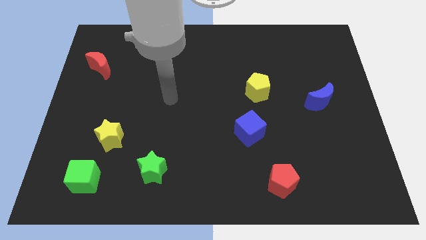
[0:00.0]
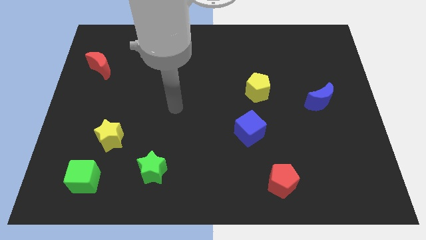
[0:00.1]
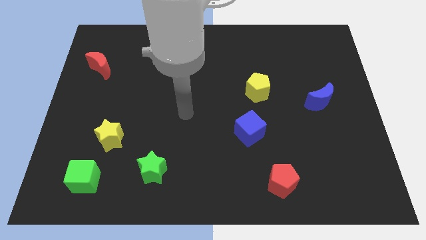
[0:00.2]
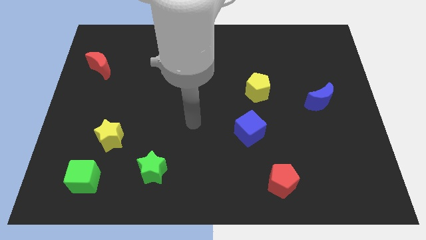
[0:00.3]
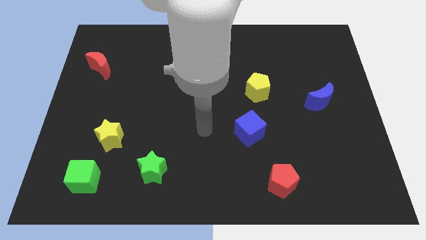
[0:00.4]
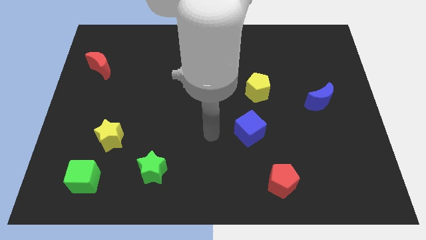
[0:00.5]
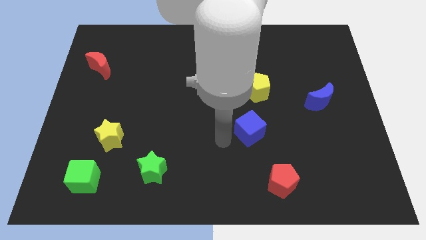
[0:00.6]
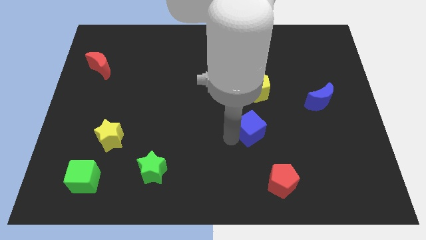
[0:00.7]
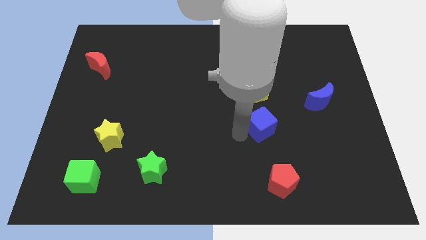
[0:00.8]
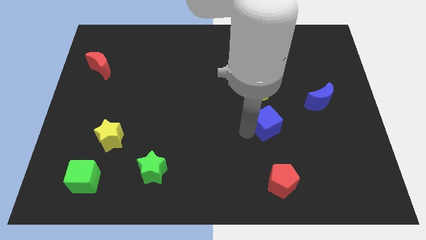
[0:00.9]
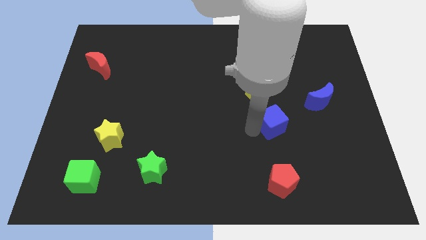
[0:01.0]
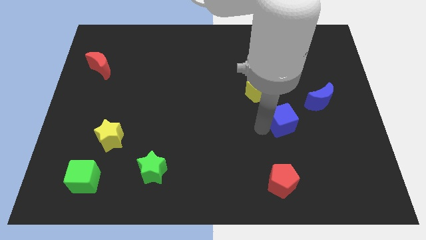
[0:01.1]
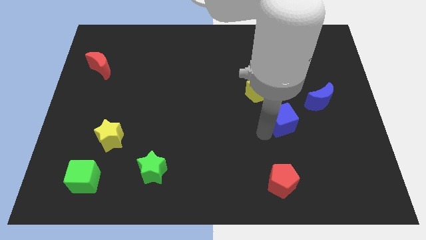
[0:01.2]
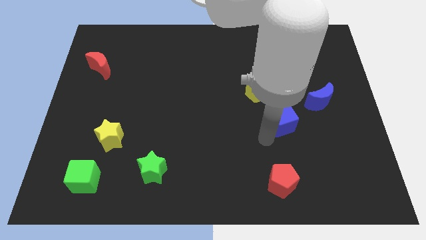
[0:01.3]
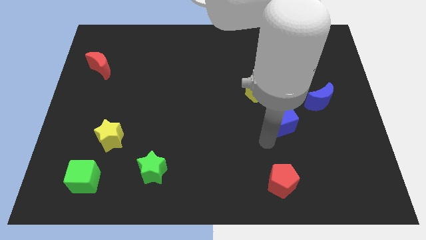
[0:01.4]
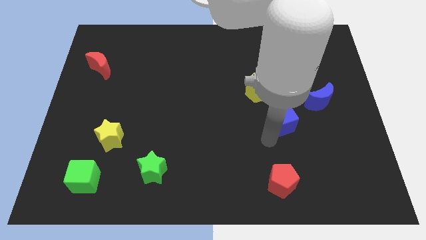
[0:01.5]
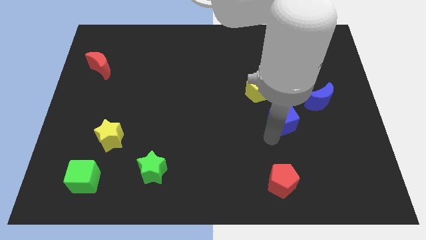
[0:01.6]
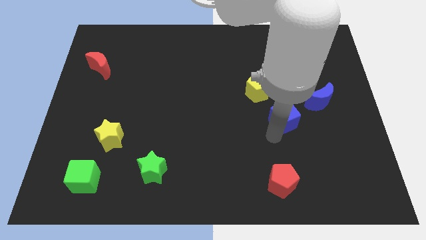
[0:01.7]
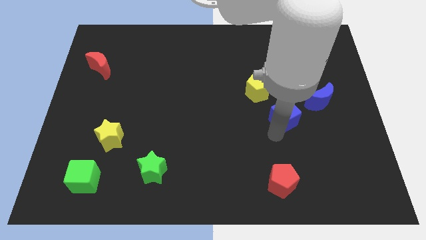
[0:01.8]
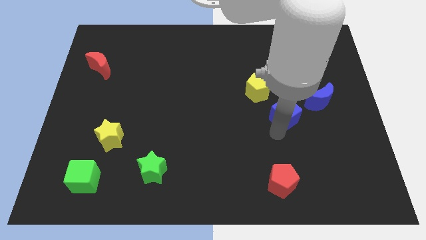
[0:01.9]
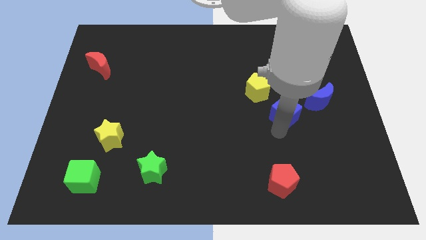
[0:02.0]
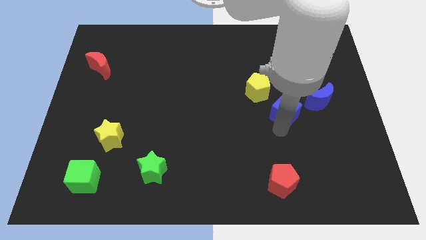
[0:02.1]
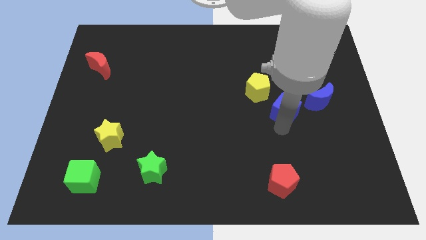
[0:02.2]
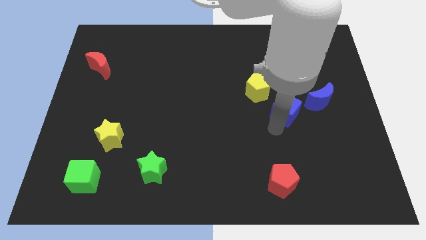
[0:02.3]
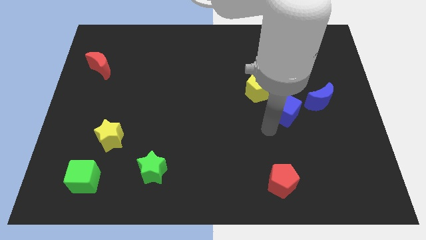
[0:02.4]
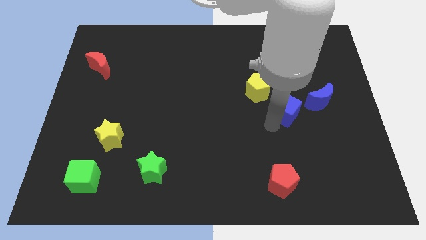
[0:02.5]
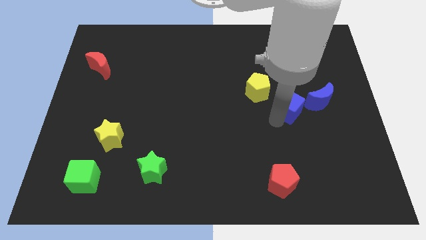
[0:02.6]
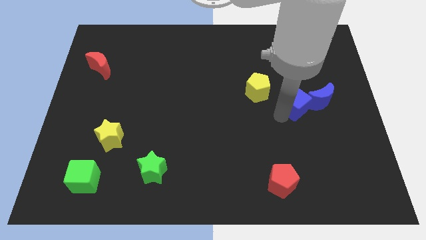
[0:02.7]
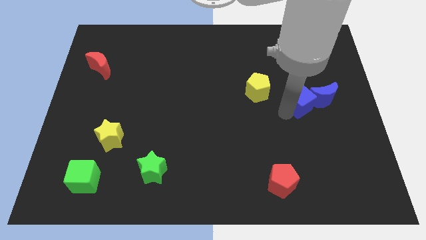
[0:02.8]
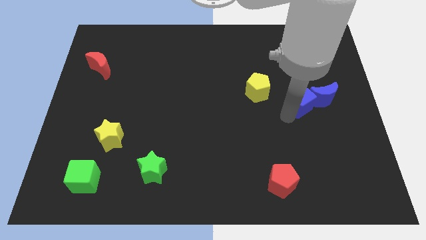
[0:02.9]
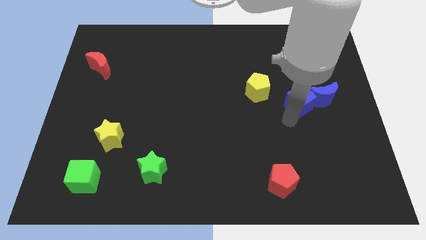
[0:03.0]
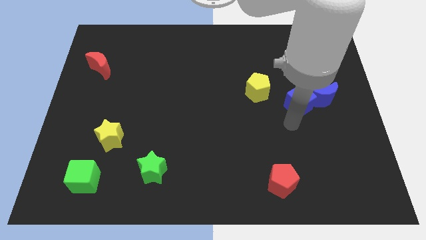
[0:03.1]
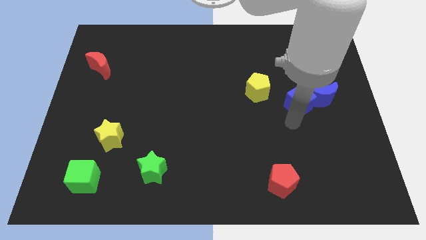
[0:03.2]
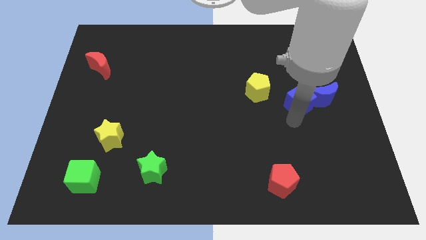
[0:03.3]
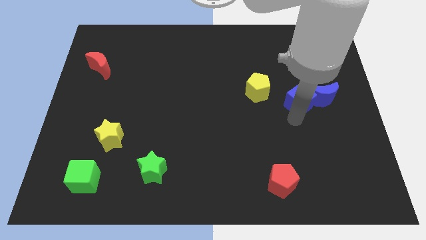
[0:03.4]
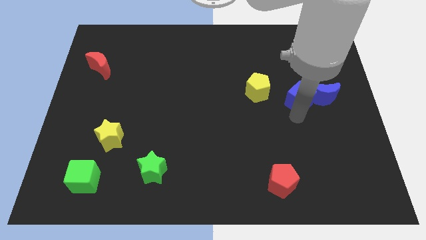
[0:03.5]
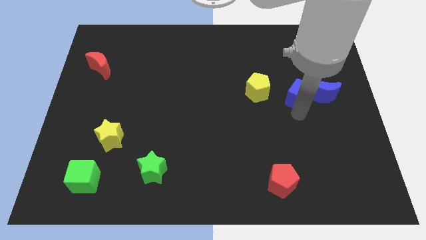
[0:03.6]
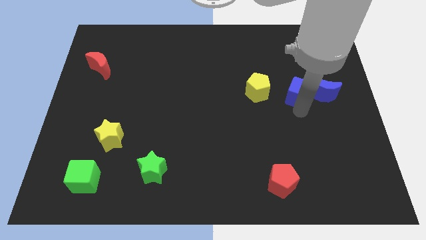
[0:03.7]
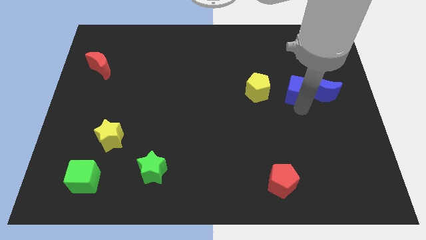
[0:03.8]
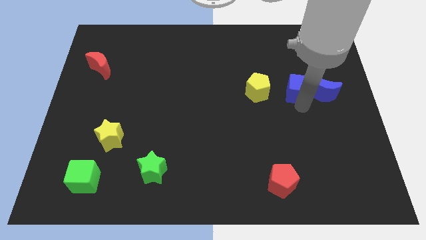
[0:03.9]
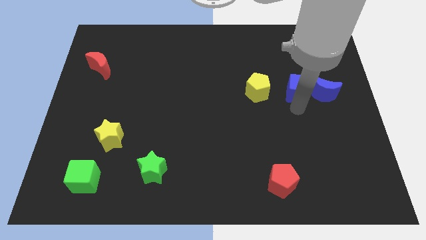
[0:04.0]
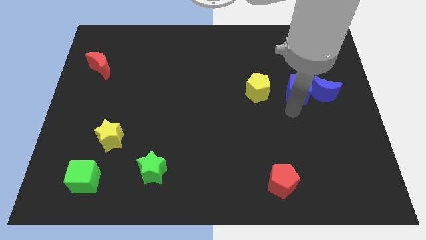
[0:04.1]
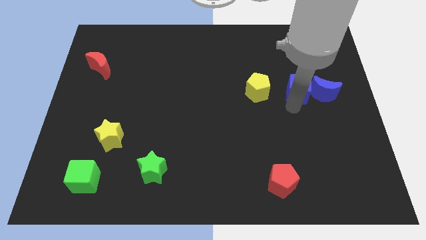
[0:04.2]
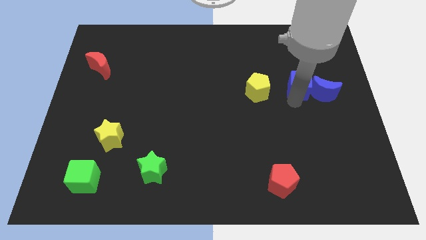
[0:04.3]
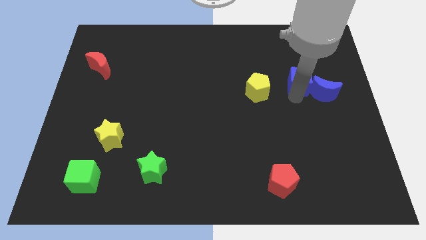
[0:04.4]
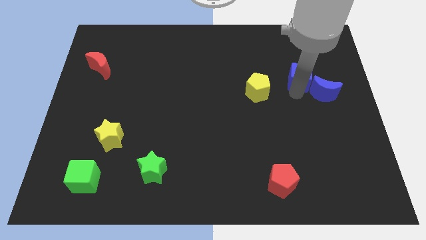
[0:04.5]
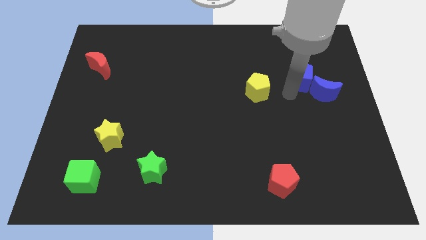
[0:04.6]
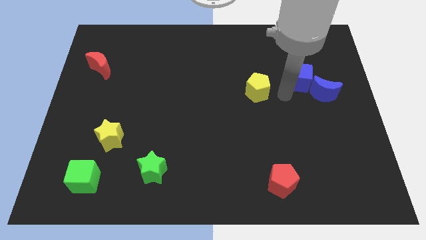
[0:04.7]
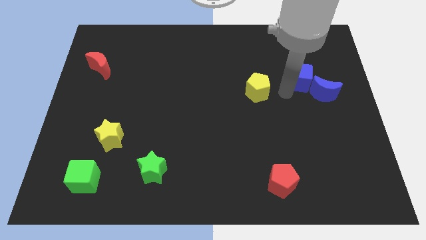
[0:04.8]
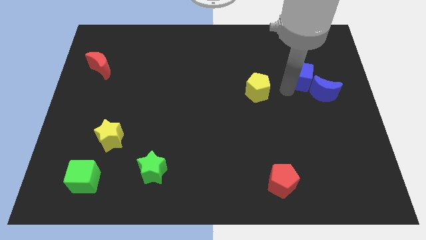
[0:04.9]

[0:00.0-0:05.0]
push the blue cube to the top of the blue moon

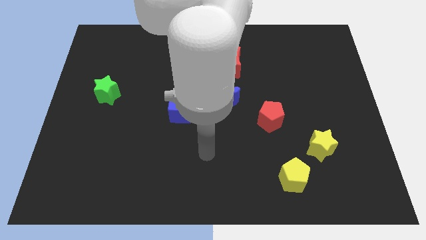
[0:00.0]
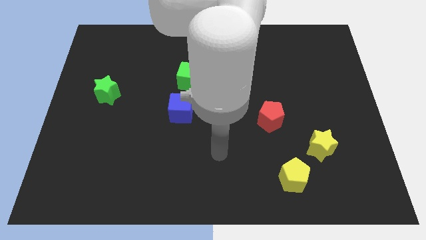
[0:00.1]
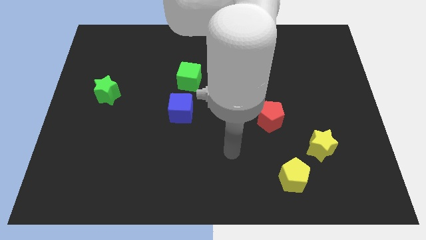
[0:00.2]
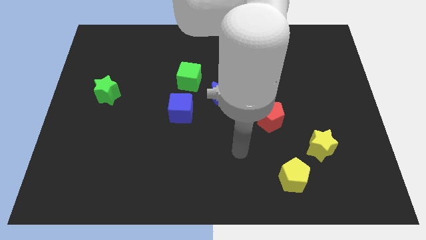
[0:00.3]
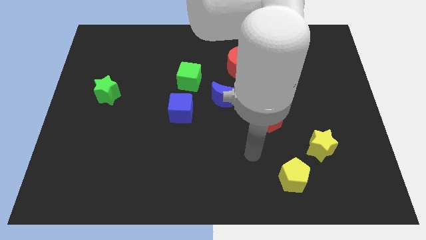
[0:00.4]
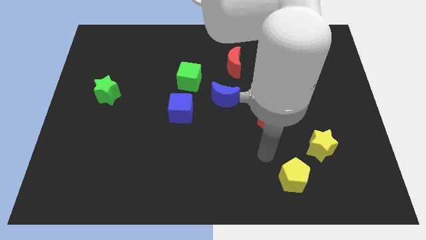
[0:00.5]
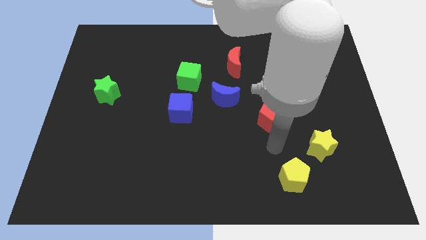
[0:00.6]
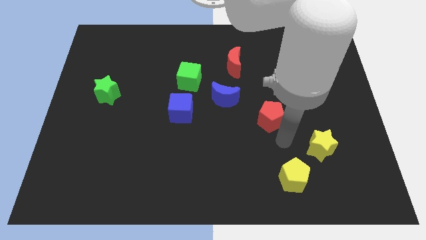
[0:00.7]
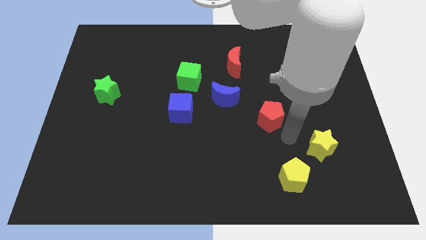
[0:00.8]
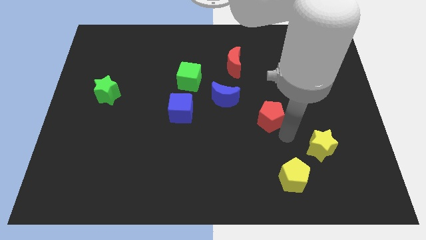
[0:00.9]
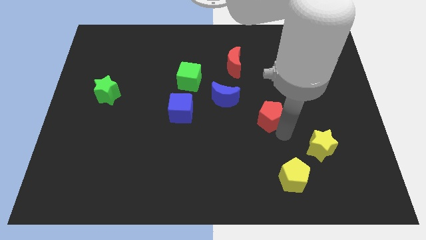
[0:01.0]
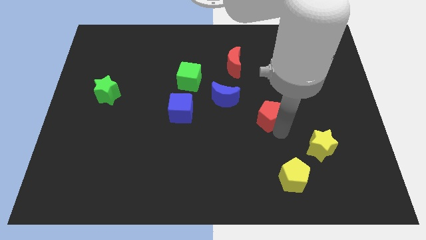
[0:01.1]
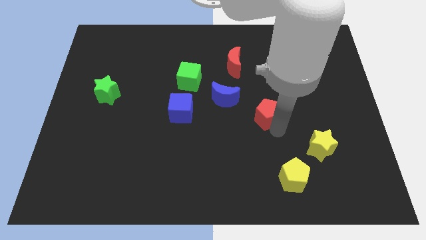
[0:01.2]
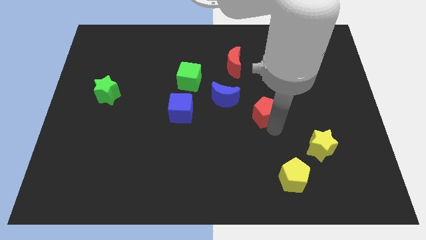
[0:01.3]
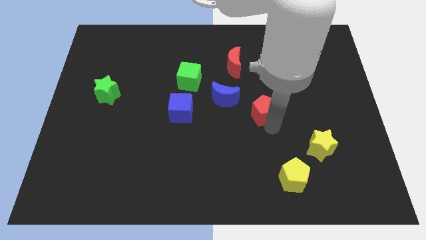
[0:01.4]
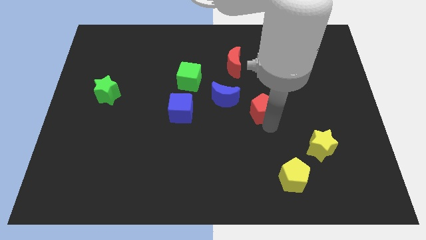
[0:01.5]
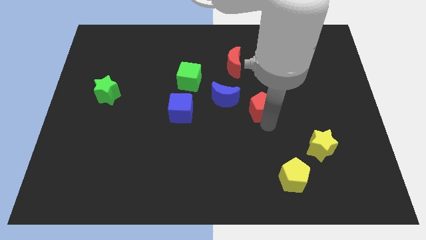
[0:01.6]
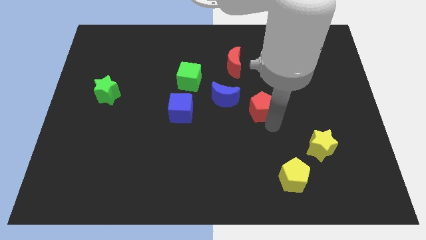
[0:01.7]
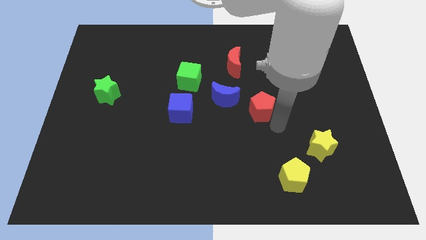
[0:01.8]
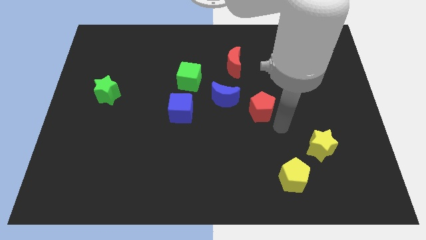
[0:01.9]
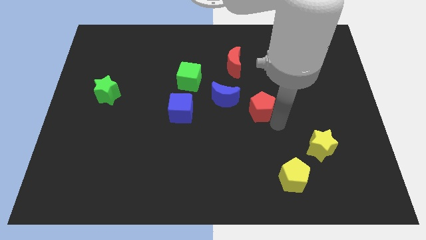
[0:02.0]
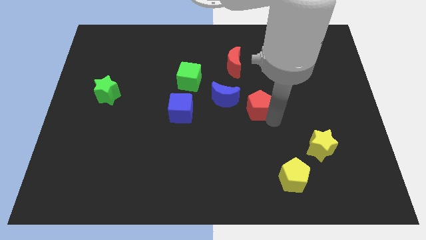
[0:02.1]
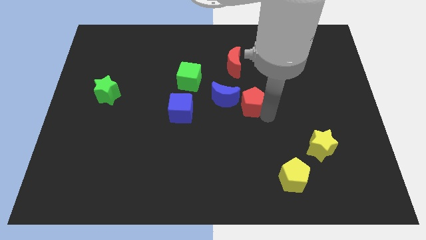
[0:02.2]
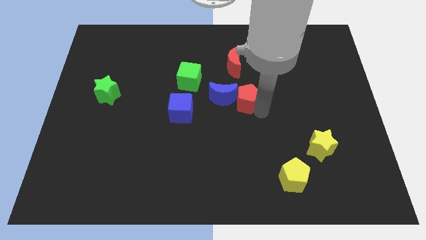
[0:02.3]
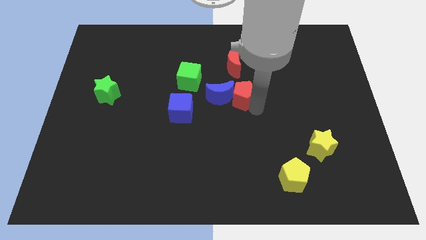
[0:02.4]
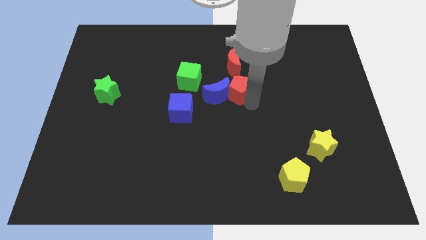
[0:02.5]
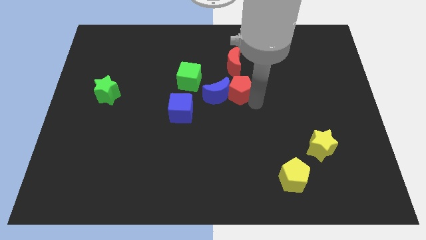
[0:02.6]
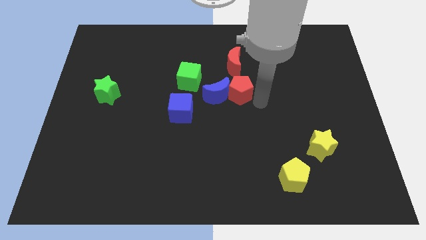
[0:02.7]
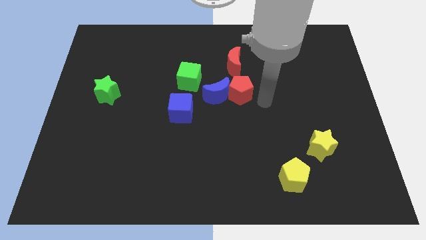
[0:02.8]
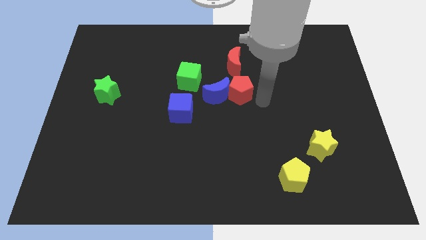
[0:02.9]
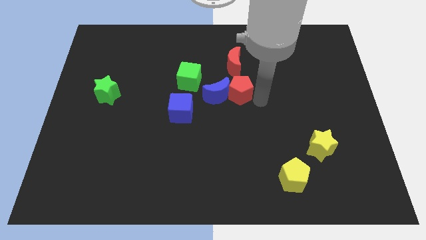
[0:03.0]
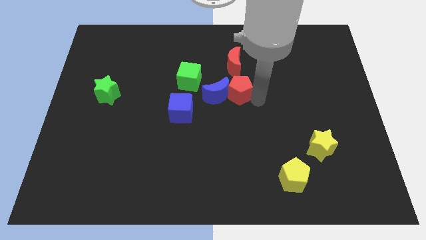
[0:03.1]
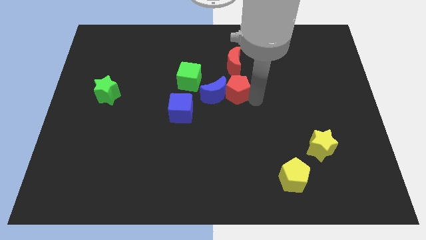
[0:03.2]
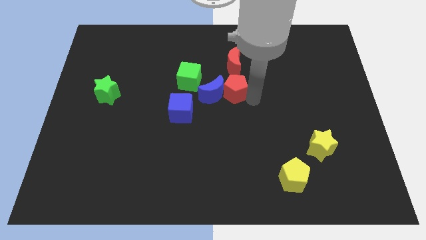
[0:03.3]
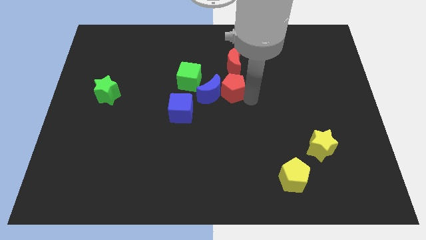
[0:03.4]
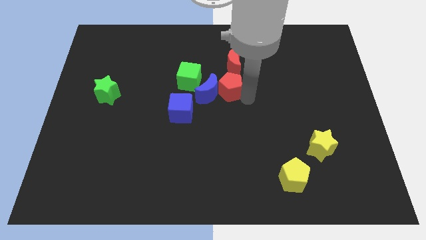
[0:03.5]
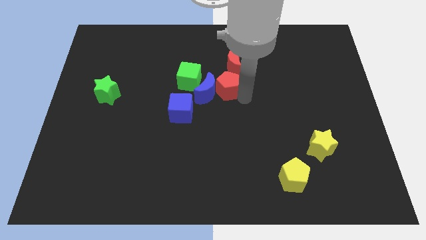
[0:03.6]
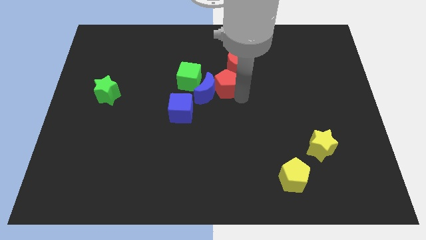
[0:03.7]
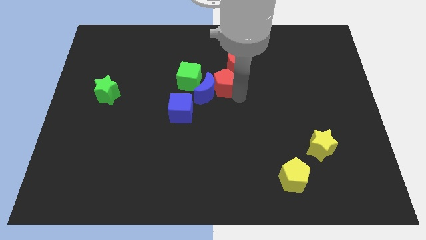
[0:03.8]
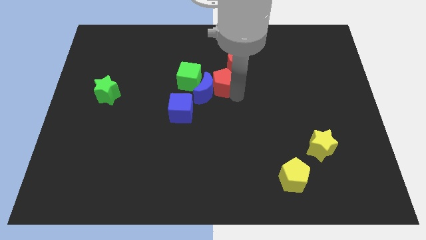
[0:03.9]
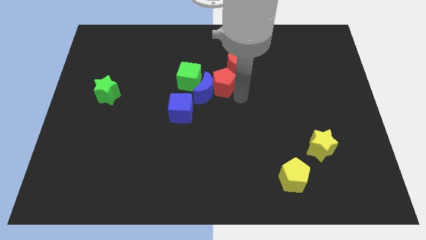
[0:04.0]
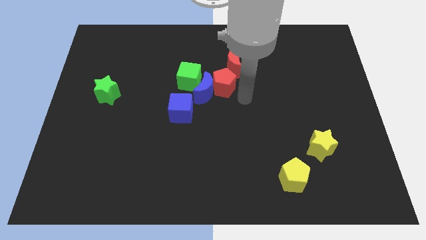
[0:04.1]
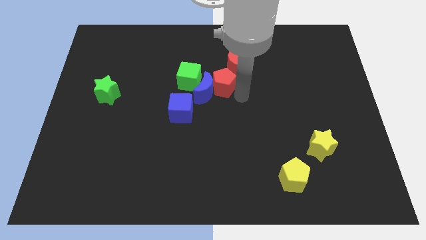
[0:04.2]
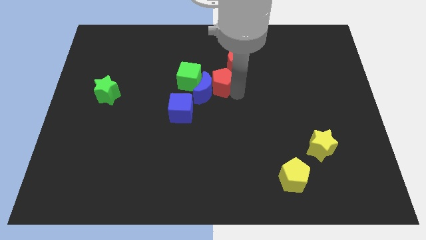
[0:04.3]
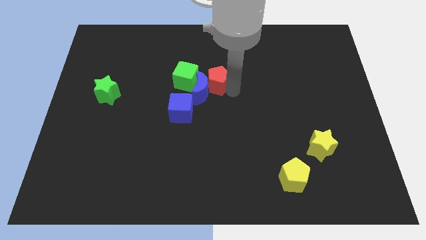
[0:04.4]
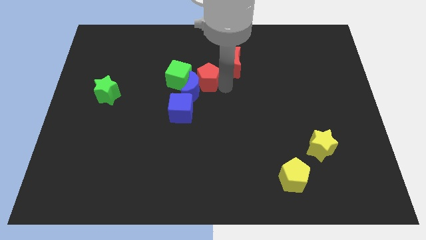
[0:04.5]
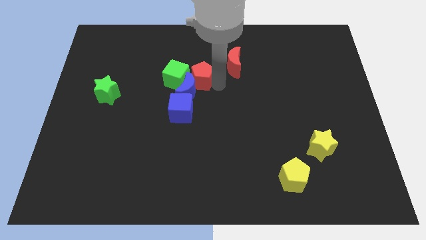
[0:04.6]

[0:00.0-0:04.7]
move the red pentagon to the left of the red moon
